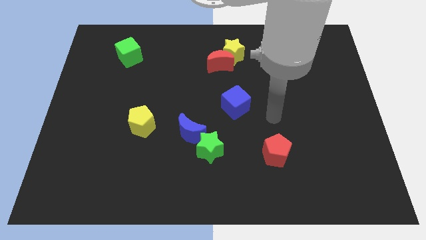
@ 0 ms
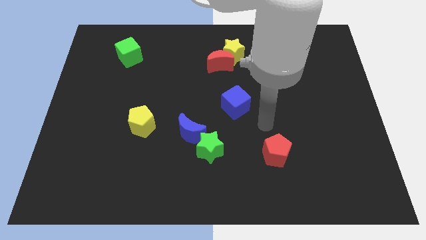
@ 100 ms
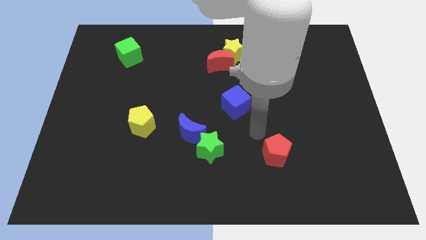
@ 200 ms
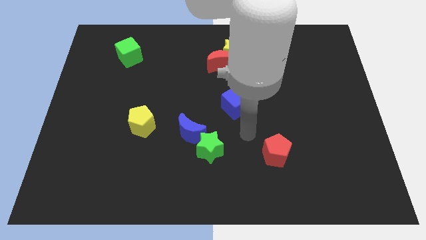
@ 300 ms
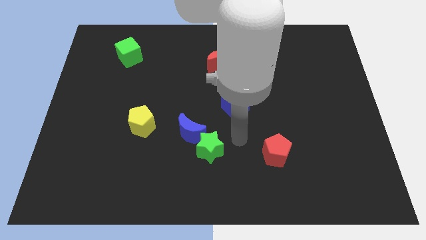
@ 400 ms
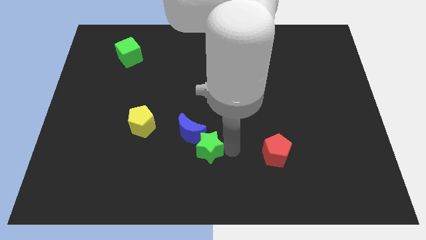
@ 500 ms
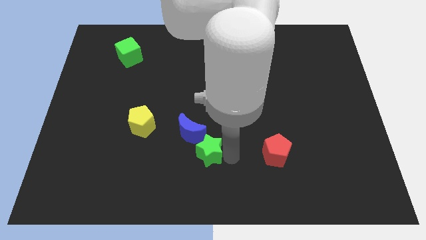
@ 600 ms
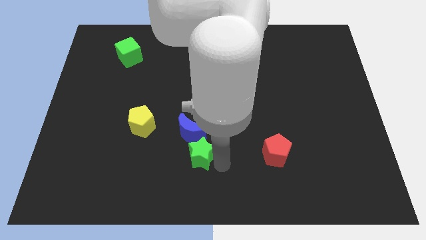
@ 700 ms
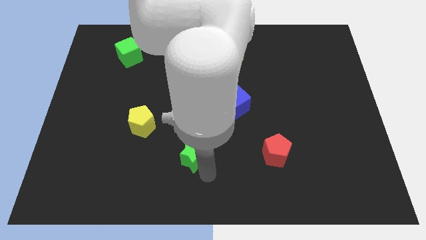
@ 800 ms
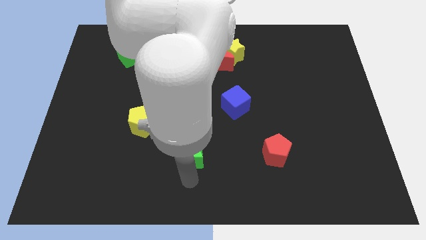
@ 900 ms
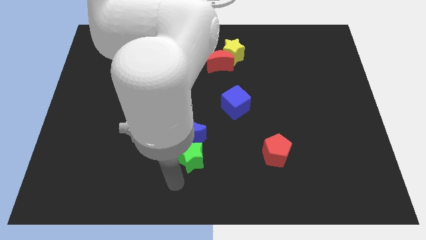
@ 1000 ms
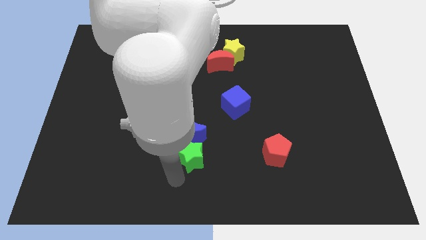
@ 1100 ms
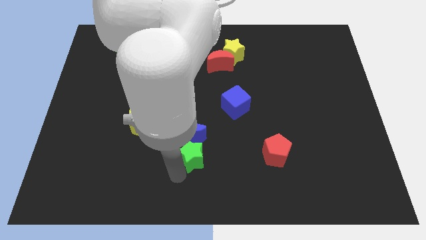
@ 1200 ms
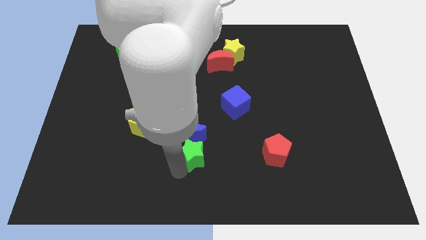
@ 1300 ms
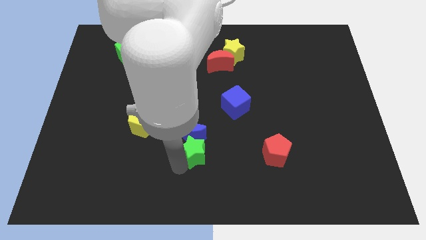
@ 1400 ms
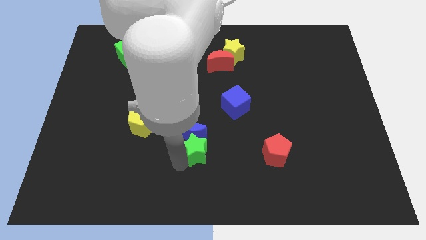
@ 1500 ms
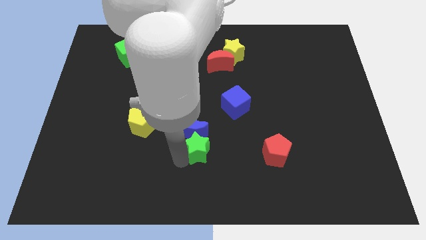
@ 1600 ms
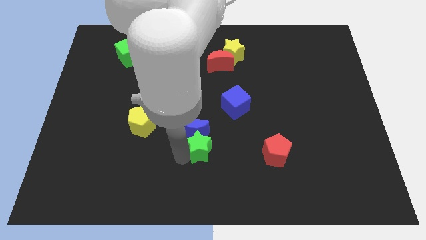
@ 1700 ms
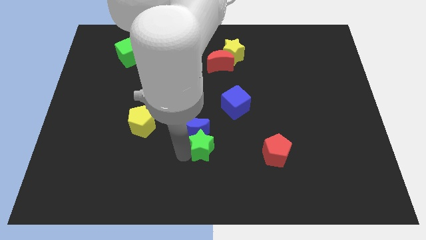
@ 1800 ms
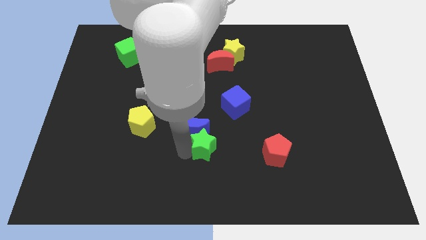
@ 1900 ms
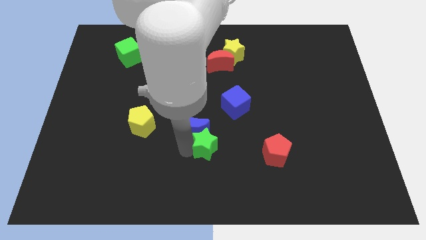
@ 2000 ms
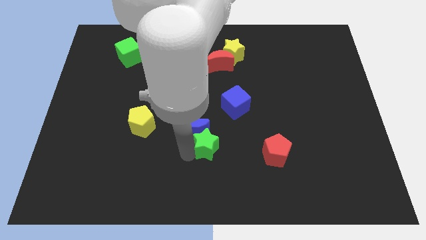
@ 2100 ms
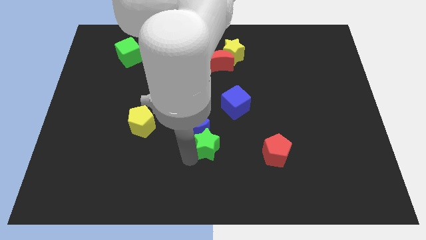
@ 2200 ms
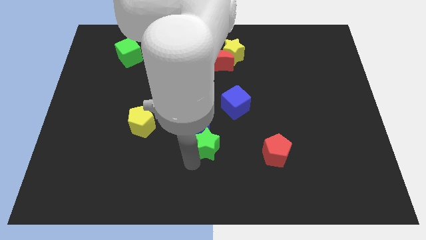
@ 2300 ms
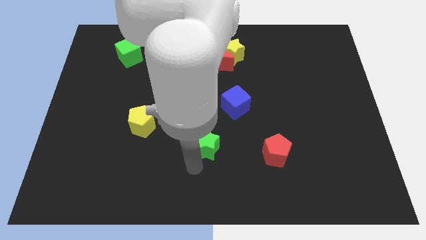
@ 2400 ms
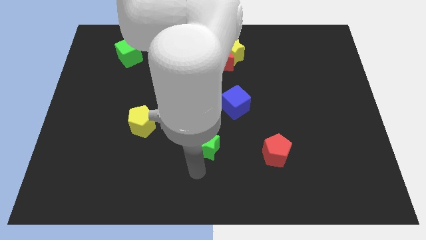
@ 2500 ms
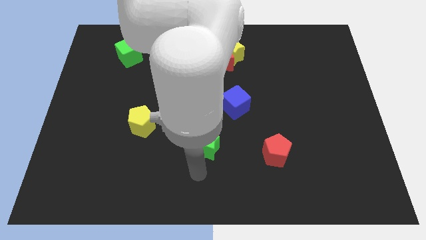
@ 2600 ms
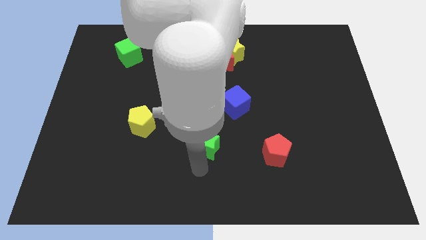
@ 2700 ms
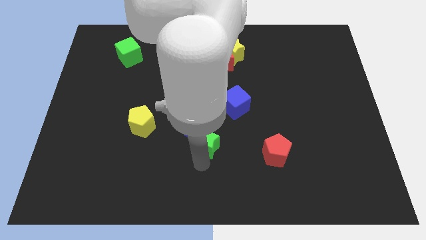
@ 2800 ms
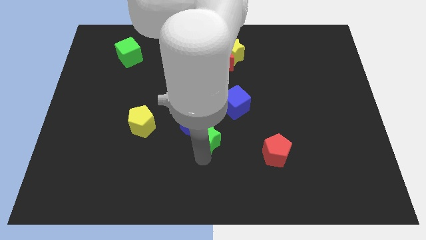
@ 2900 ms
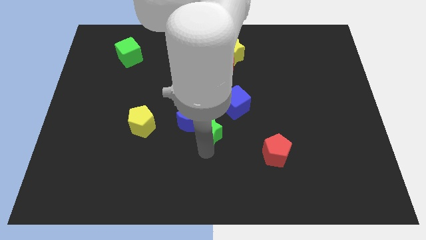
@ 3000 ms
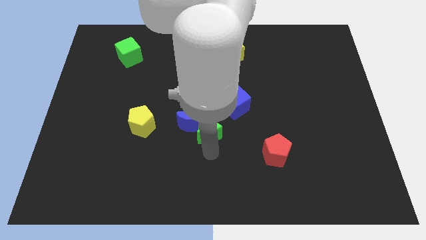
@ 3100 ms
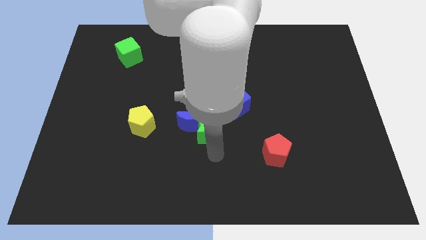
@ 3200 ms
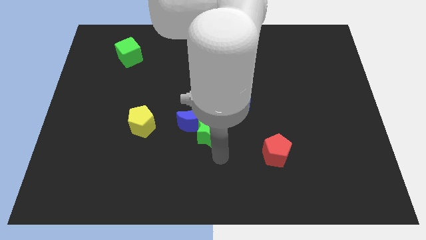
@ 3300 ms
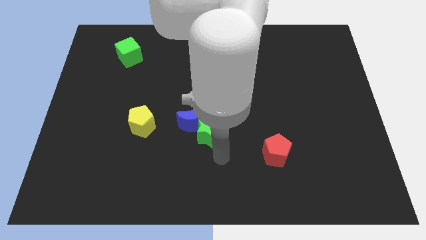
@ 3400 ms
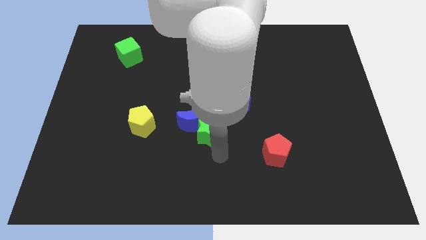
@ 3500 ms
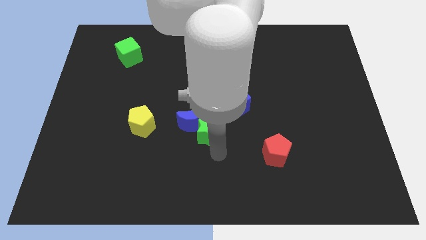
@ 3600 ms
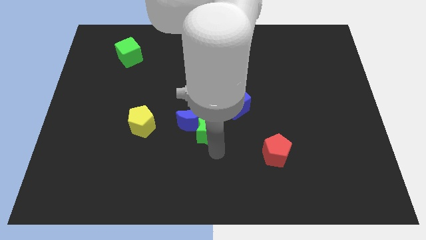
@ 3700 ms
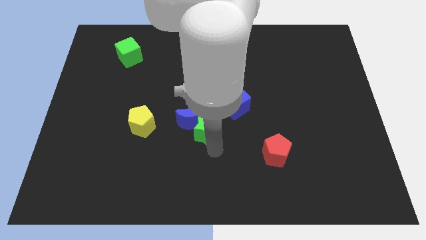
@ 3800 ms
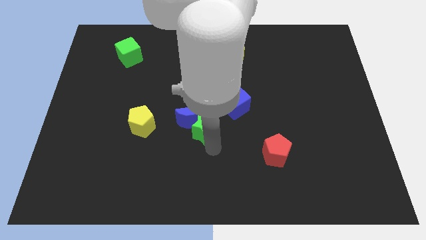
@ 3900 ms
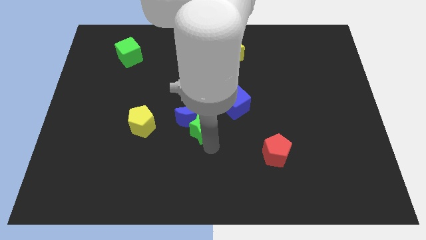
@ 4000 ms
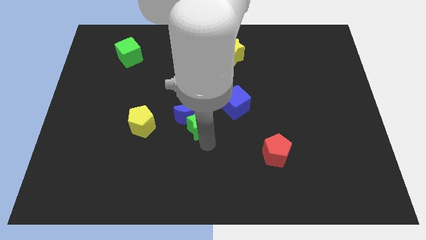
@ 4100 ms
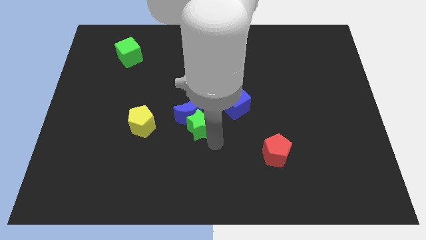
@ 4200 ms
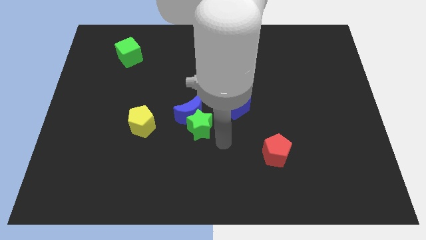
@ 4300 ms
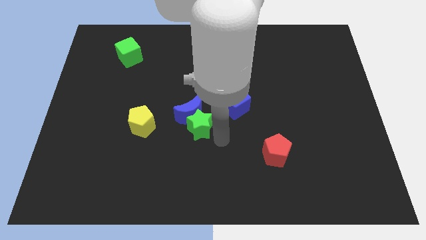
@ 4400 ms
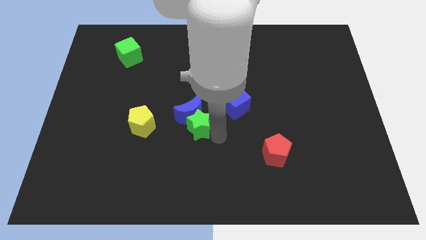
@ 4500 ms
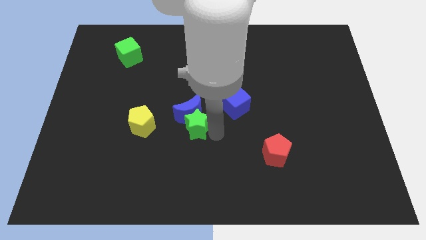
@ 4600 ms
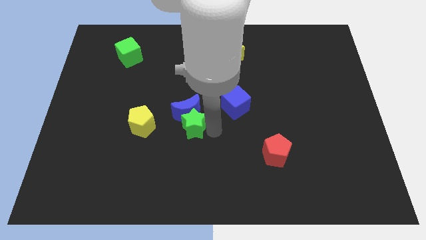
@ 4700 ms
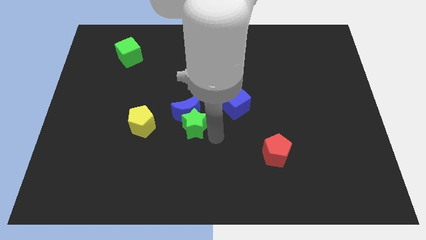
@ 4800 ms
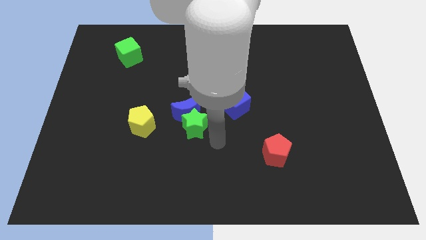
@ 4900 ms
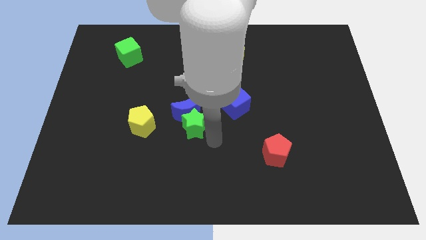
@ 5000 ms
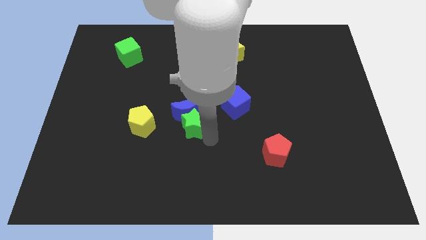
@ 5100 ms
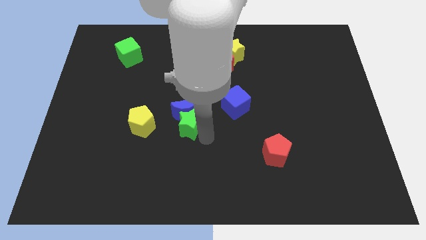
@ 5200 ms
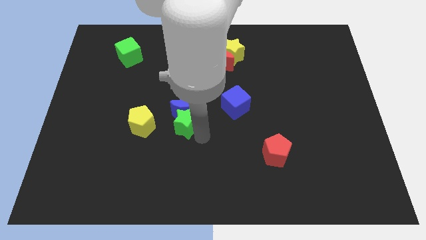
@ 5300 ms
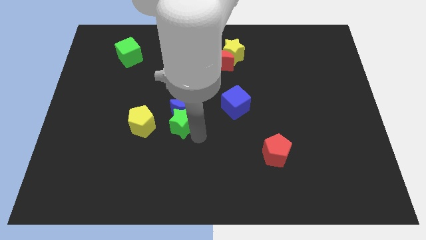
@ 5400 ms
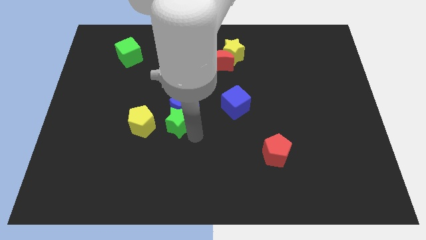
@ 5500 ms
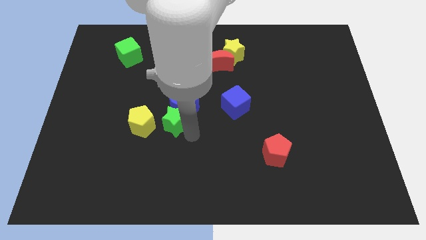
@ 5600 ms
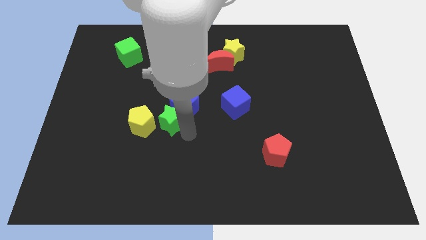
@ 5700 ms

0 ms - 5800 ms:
push the green star diagonally up and to the right of the yellow pentagon
